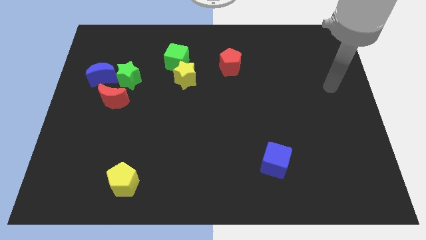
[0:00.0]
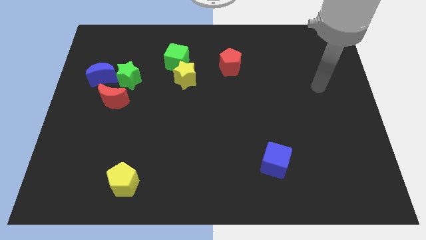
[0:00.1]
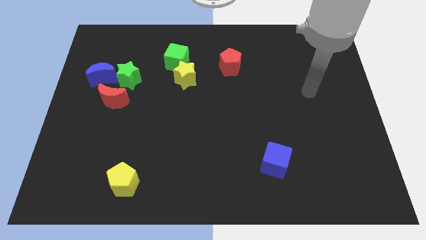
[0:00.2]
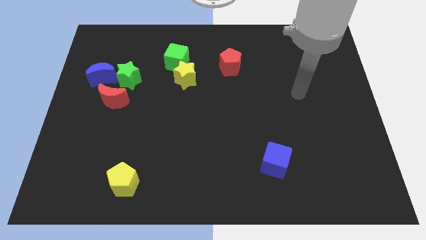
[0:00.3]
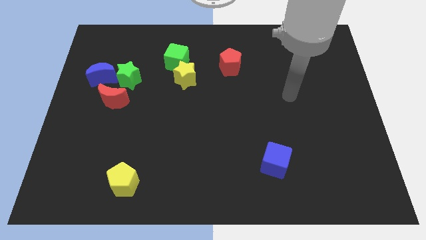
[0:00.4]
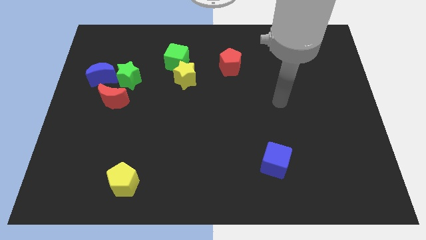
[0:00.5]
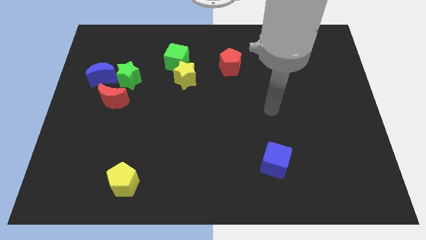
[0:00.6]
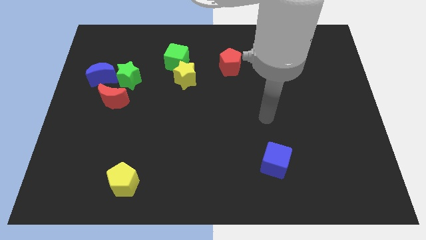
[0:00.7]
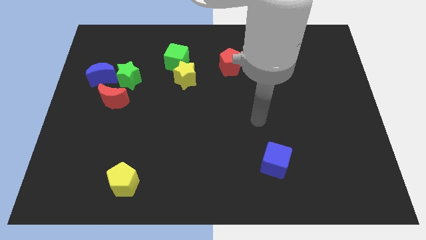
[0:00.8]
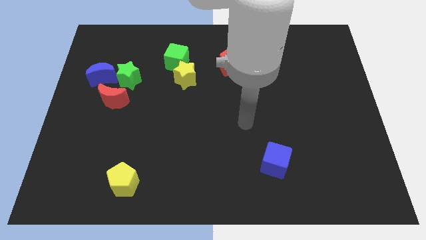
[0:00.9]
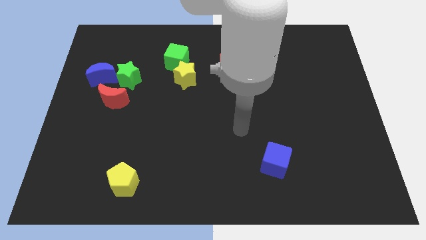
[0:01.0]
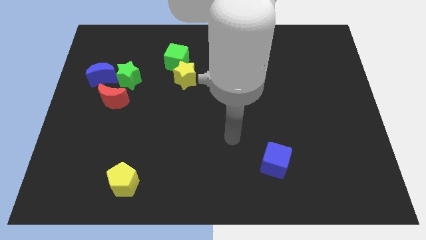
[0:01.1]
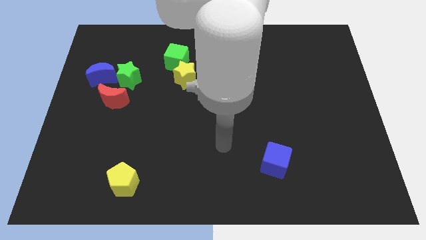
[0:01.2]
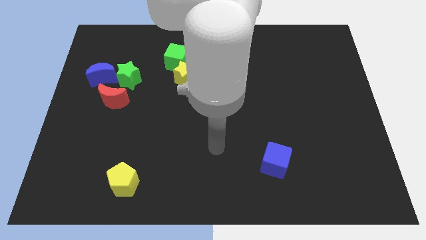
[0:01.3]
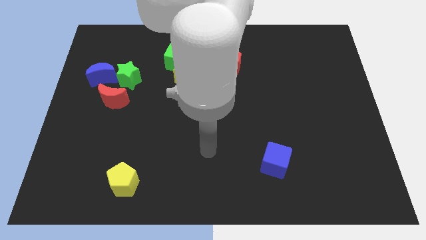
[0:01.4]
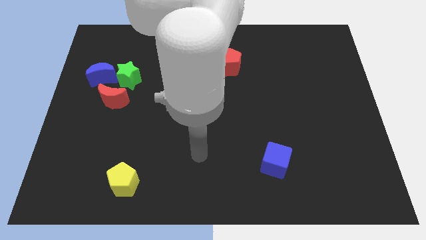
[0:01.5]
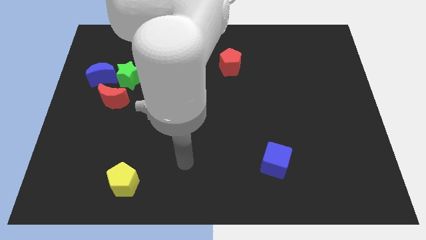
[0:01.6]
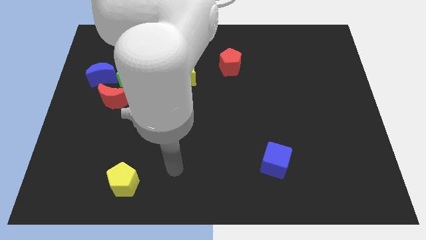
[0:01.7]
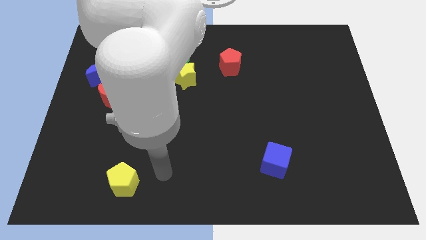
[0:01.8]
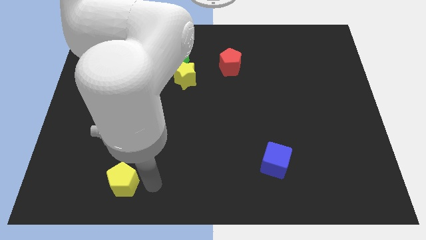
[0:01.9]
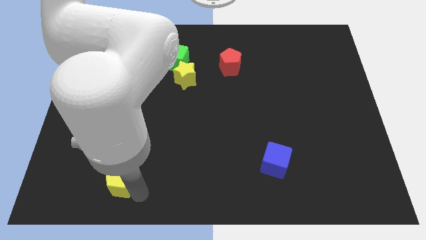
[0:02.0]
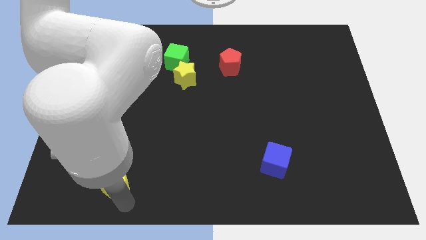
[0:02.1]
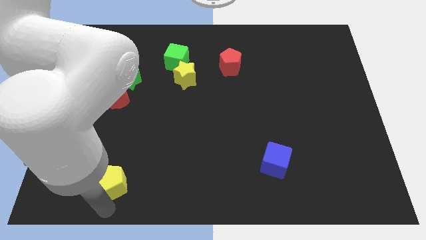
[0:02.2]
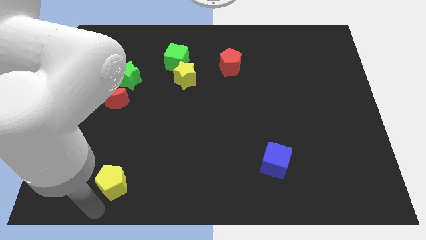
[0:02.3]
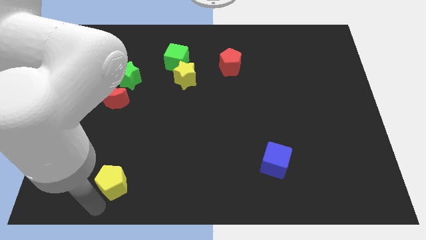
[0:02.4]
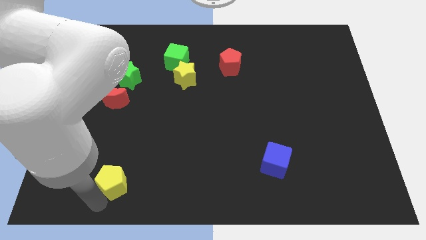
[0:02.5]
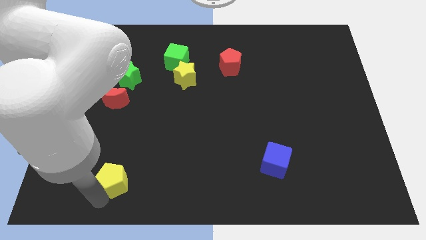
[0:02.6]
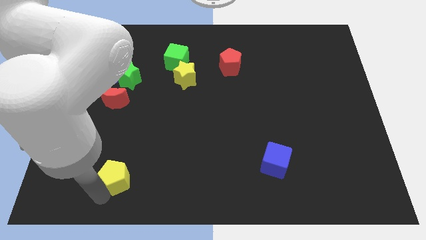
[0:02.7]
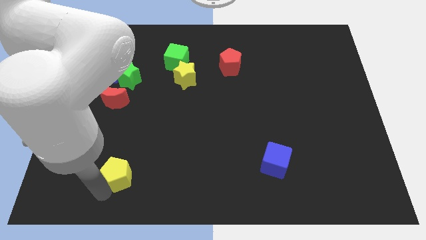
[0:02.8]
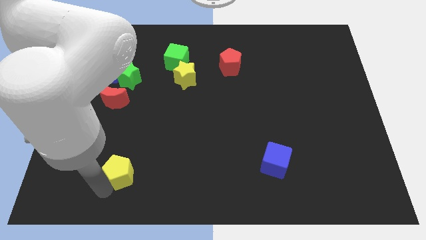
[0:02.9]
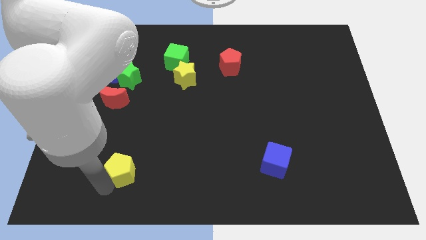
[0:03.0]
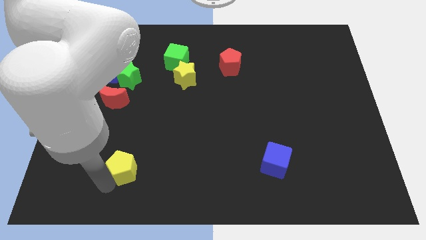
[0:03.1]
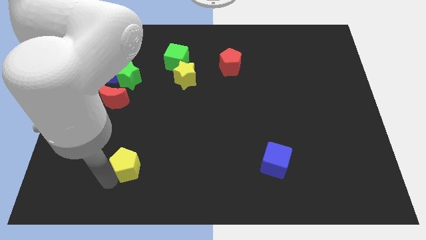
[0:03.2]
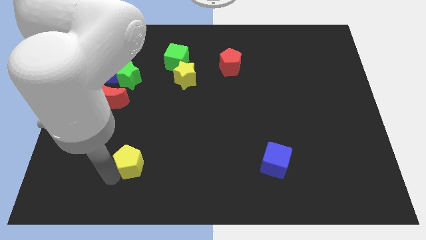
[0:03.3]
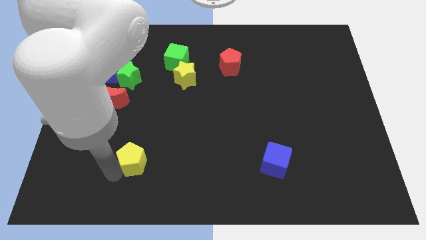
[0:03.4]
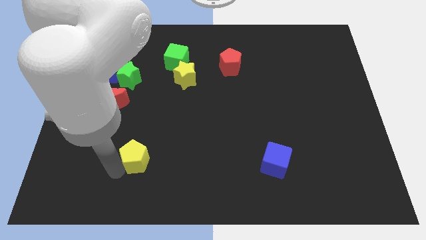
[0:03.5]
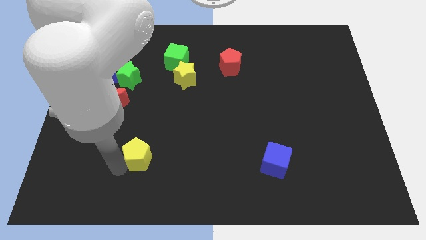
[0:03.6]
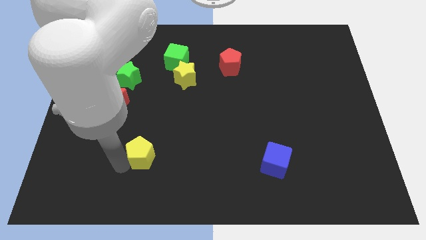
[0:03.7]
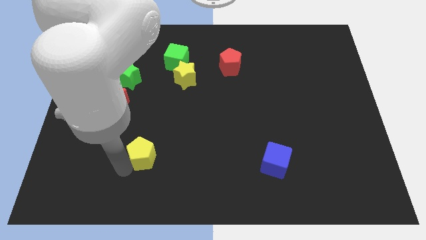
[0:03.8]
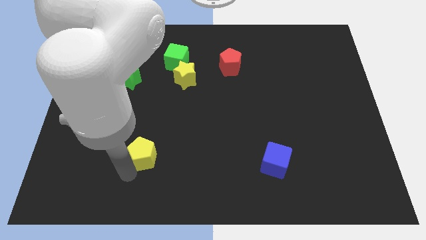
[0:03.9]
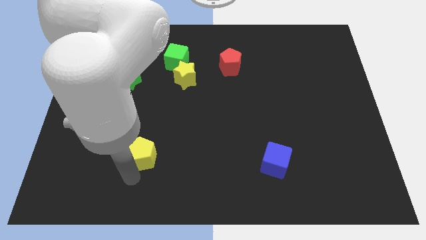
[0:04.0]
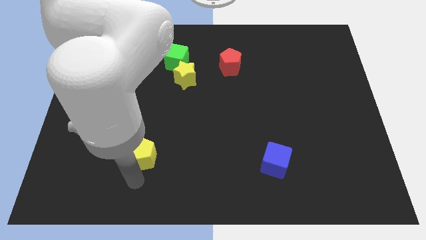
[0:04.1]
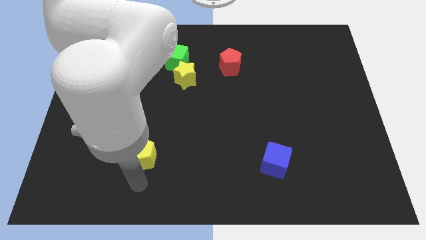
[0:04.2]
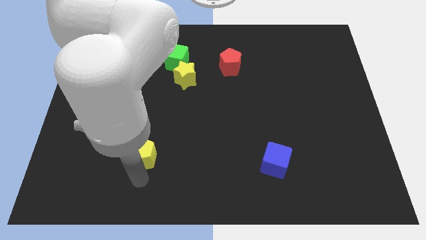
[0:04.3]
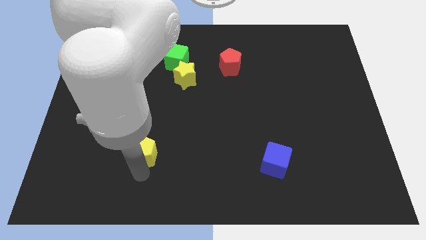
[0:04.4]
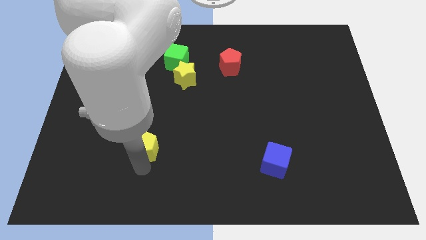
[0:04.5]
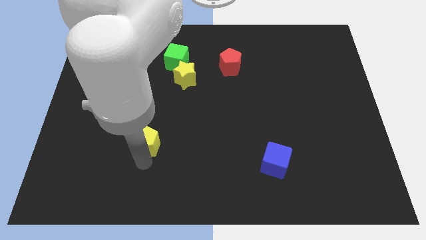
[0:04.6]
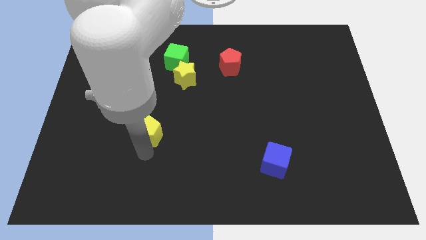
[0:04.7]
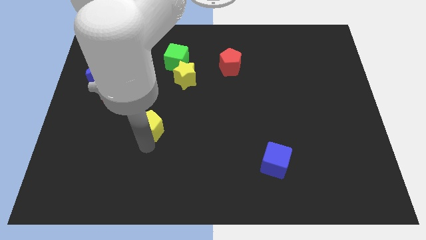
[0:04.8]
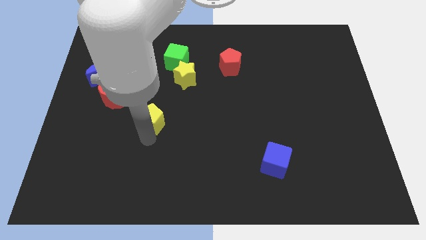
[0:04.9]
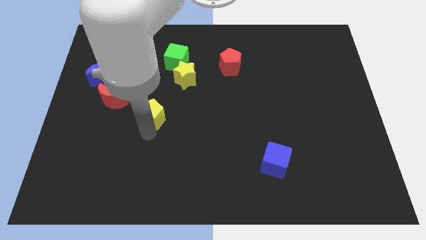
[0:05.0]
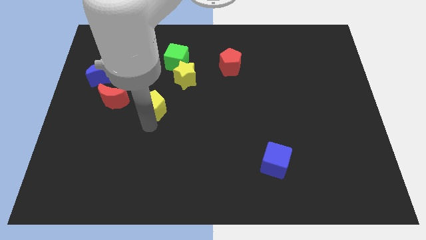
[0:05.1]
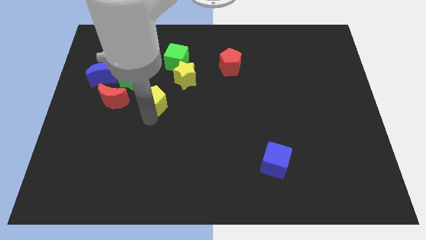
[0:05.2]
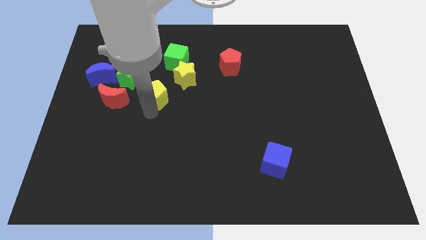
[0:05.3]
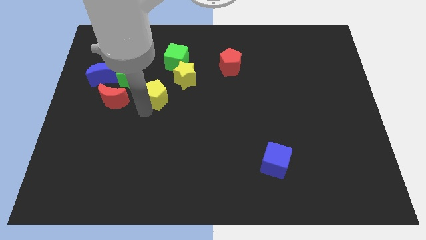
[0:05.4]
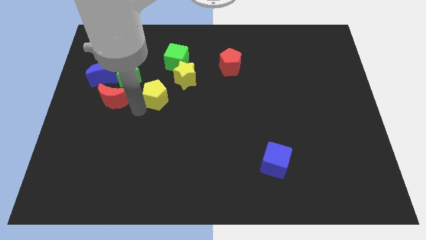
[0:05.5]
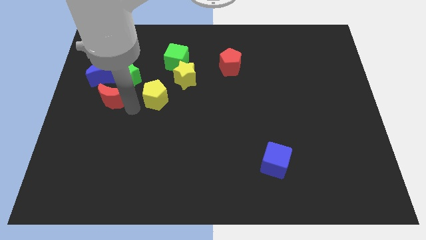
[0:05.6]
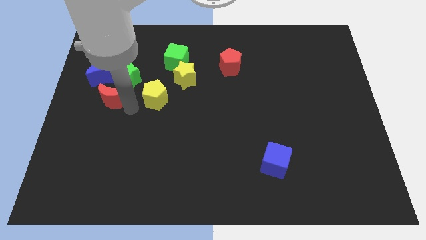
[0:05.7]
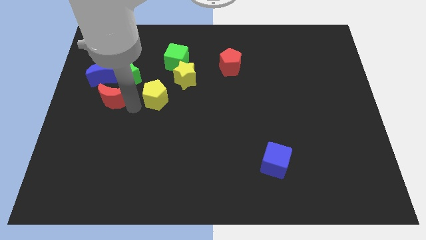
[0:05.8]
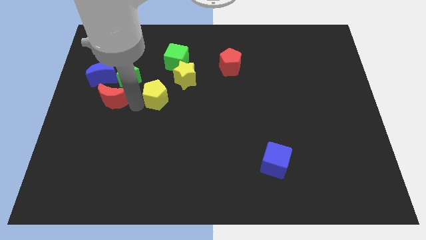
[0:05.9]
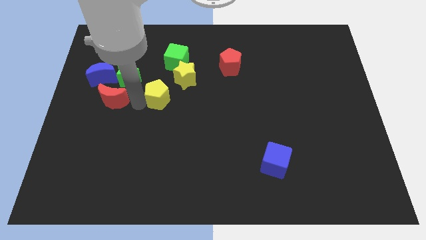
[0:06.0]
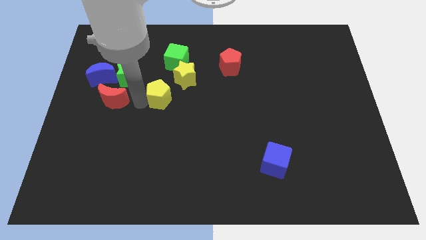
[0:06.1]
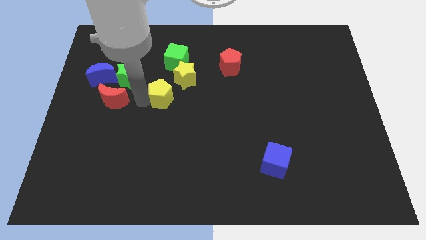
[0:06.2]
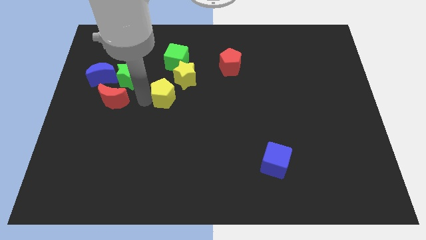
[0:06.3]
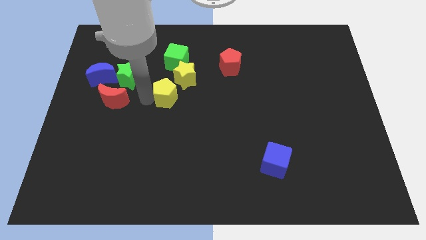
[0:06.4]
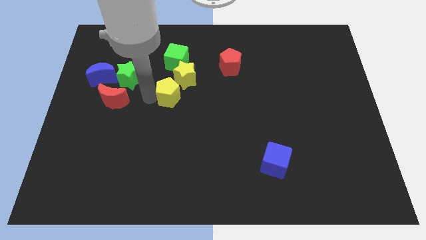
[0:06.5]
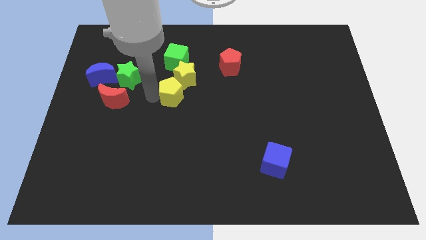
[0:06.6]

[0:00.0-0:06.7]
slide the yellow pentagon close to the yellow star

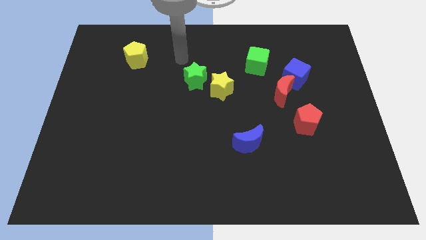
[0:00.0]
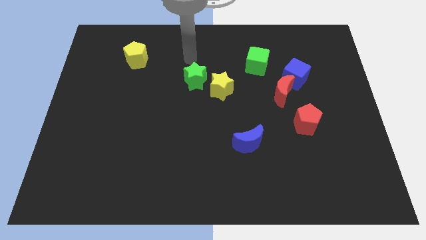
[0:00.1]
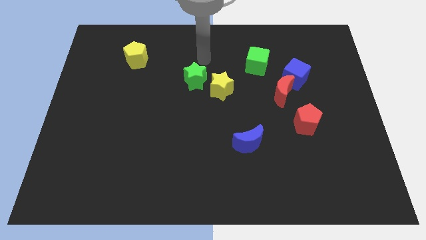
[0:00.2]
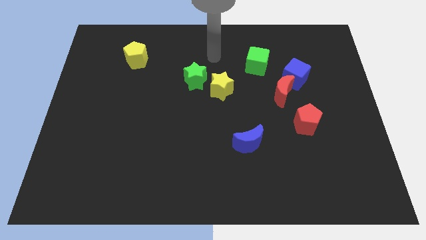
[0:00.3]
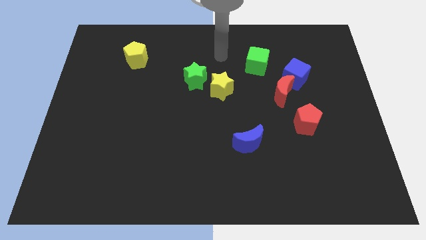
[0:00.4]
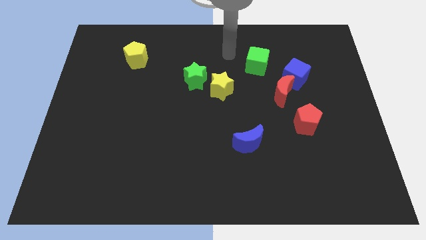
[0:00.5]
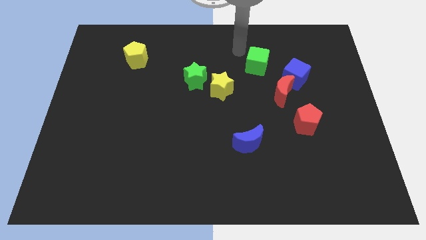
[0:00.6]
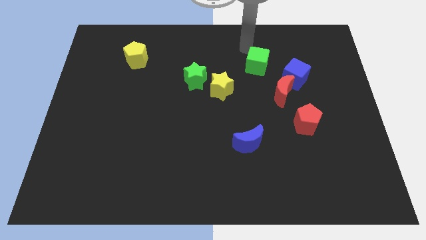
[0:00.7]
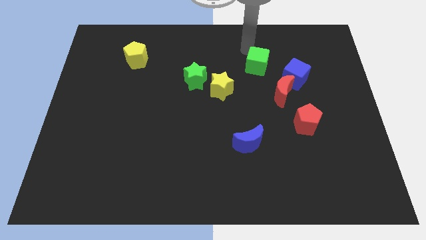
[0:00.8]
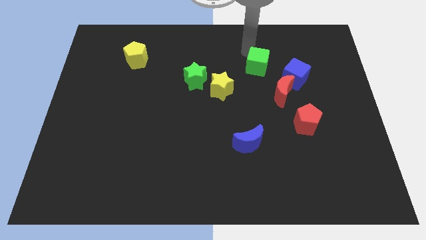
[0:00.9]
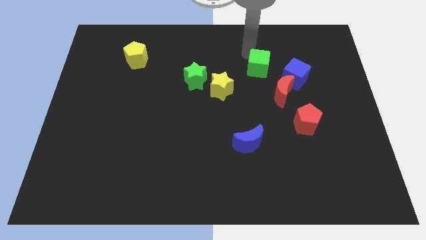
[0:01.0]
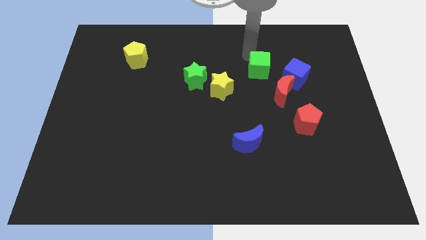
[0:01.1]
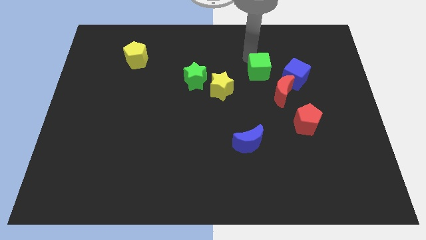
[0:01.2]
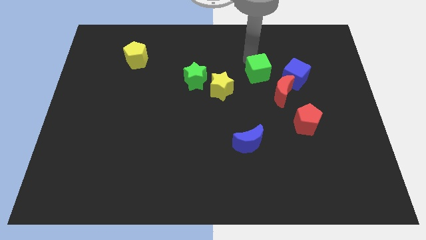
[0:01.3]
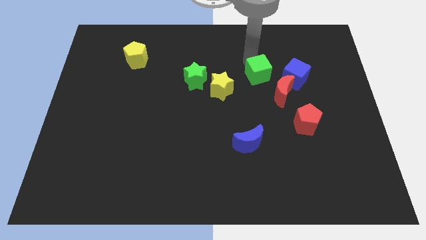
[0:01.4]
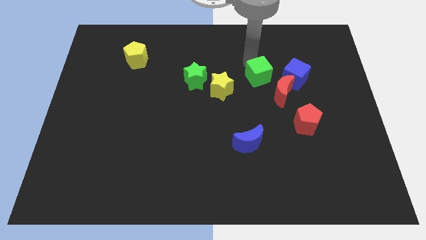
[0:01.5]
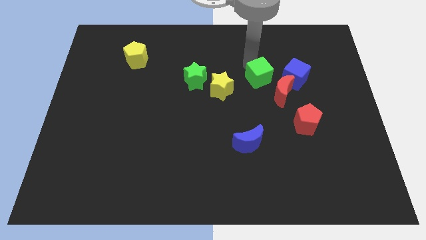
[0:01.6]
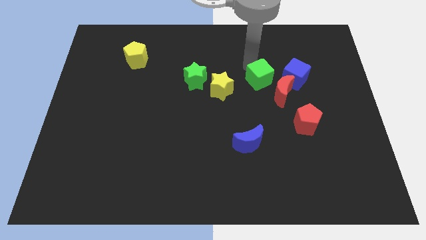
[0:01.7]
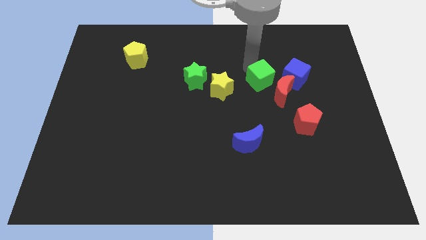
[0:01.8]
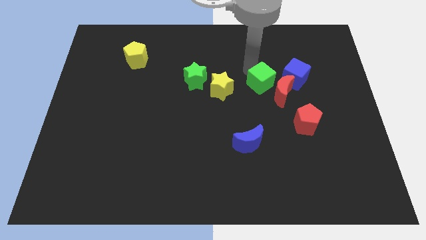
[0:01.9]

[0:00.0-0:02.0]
put the green cube close to the red moon
